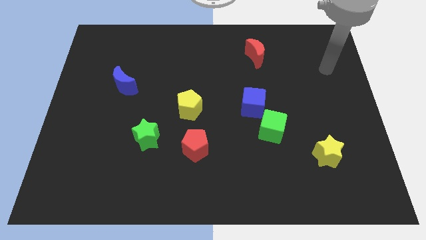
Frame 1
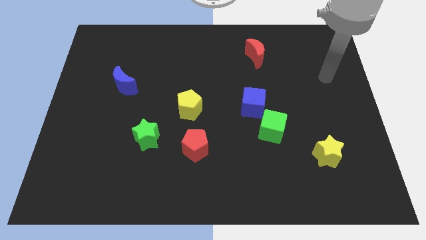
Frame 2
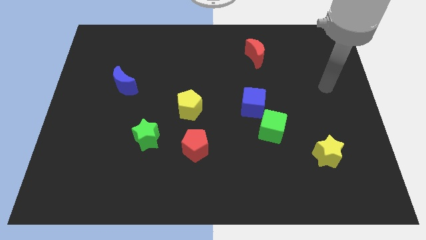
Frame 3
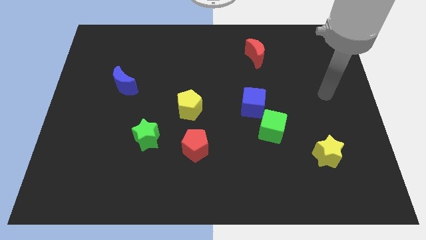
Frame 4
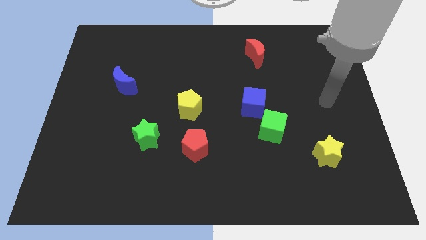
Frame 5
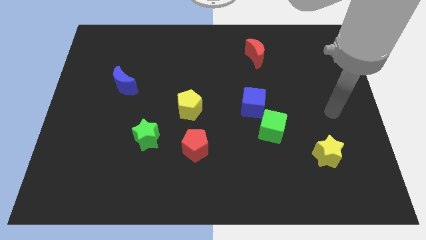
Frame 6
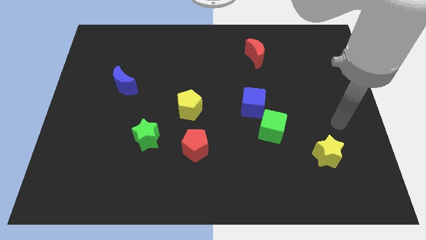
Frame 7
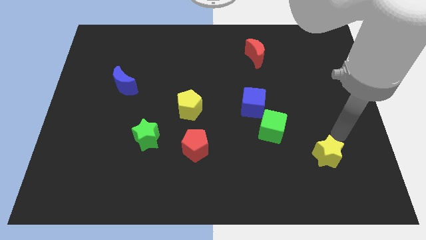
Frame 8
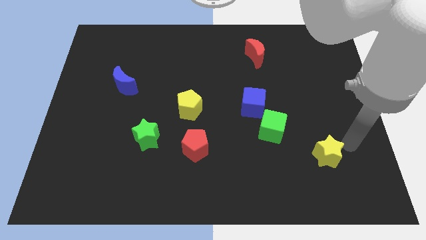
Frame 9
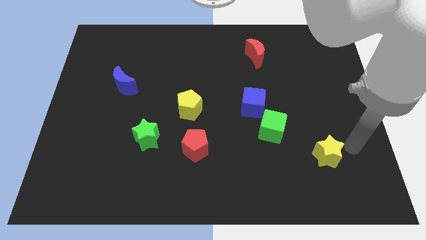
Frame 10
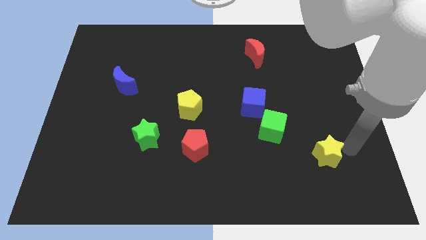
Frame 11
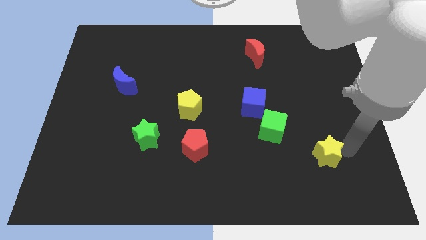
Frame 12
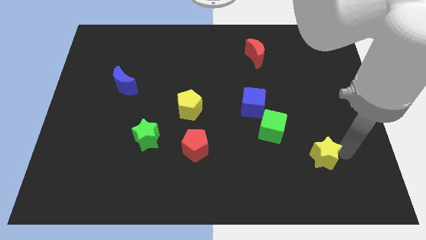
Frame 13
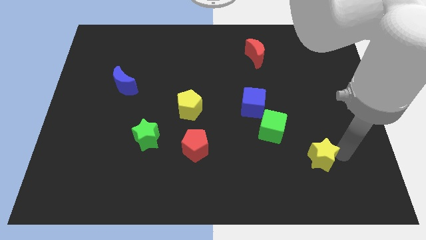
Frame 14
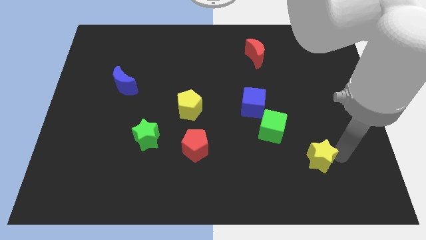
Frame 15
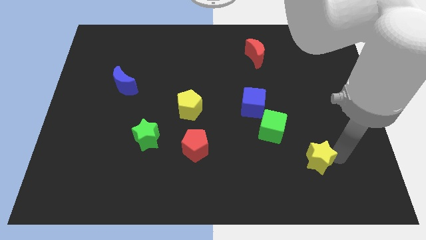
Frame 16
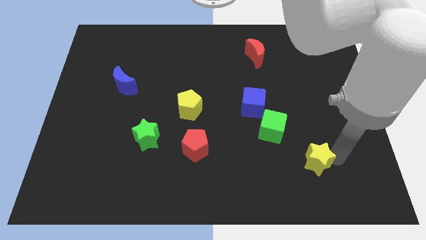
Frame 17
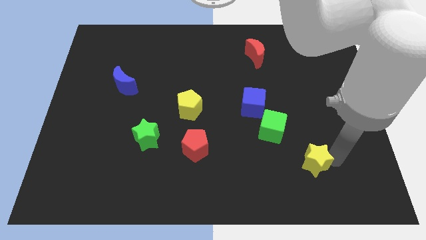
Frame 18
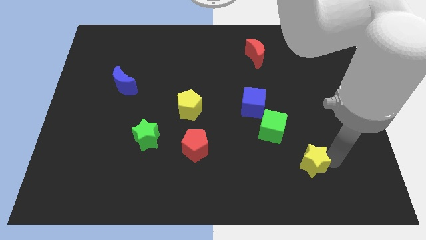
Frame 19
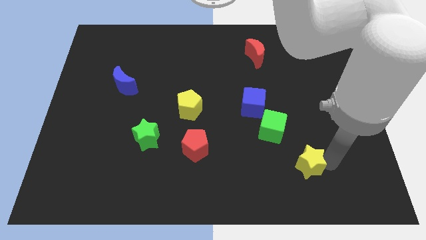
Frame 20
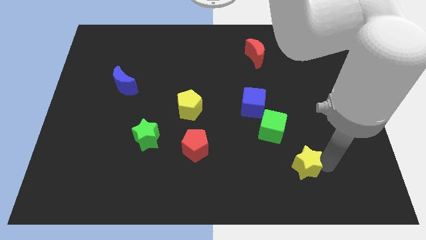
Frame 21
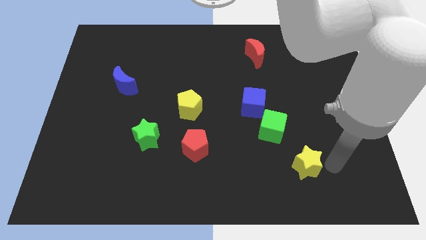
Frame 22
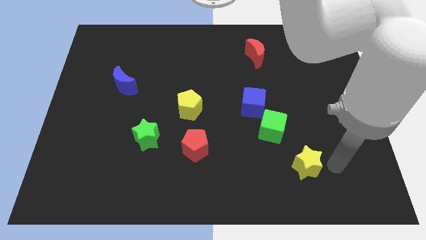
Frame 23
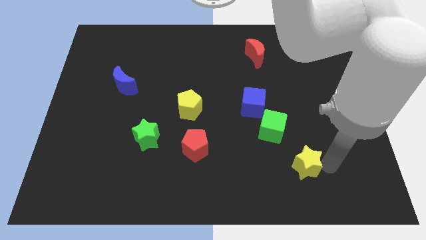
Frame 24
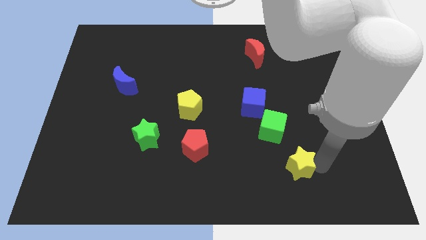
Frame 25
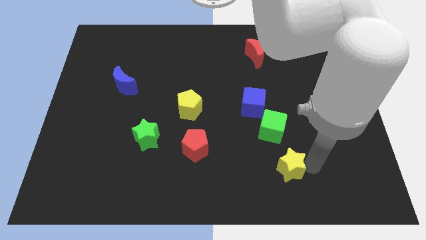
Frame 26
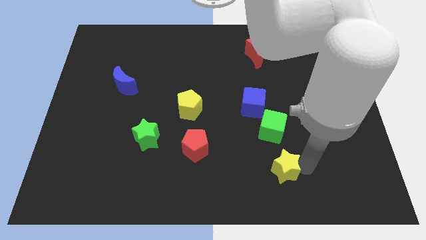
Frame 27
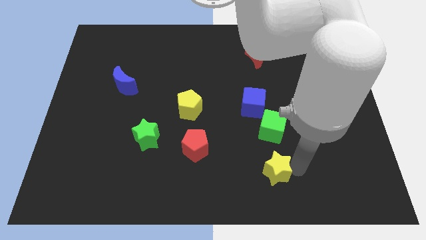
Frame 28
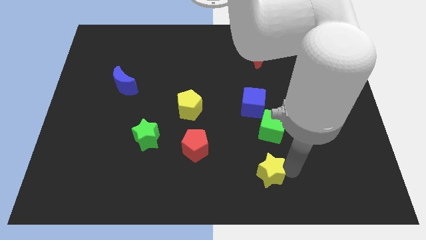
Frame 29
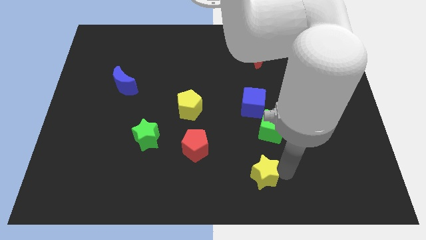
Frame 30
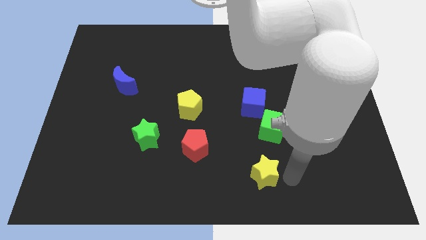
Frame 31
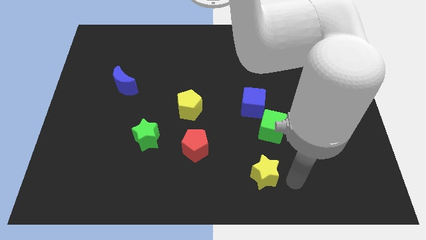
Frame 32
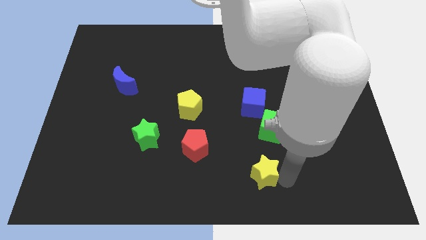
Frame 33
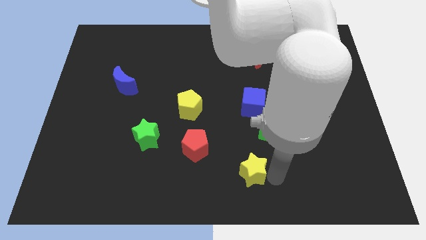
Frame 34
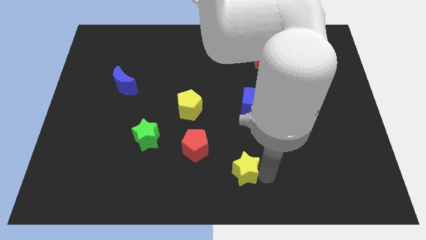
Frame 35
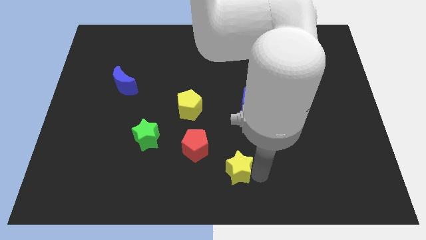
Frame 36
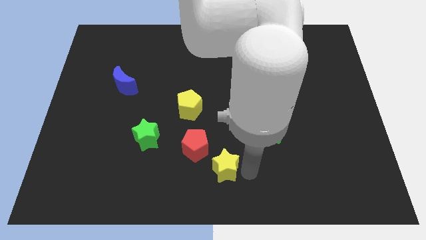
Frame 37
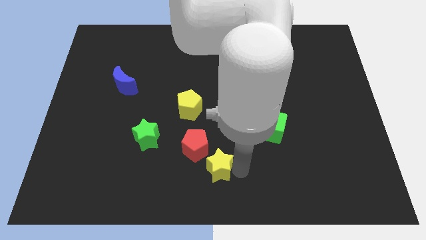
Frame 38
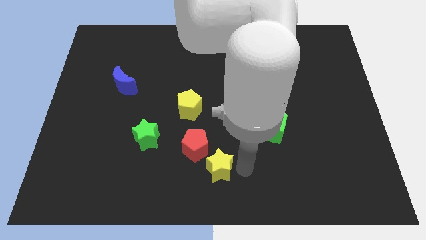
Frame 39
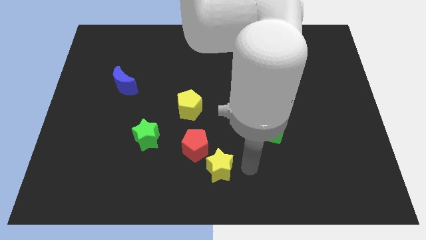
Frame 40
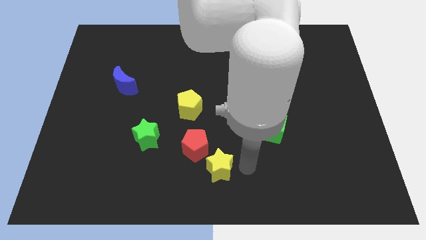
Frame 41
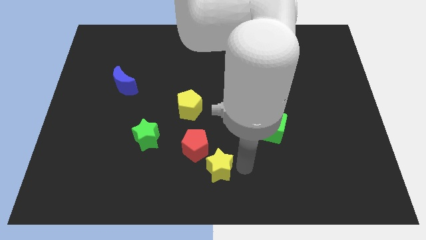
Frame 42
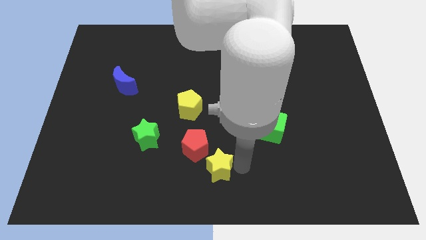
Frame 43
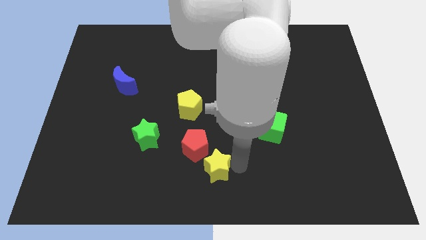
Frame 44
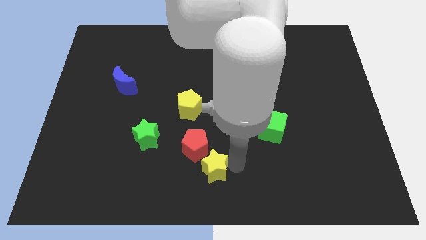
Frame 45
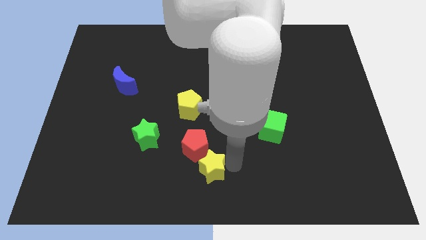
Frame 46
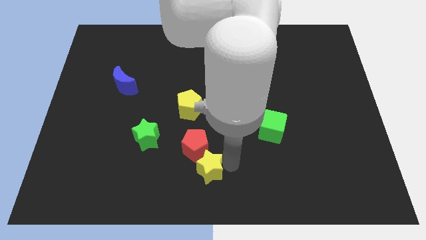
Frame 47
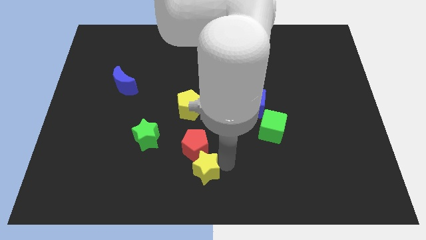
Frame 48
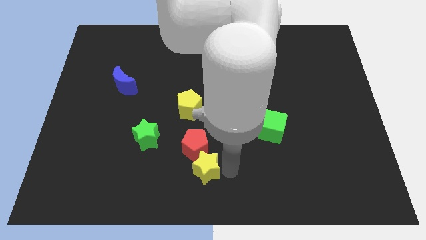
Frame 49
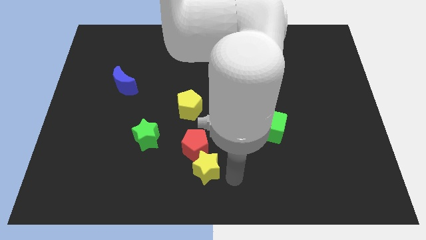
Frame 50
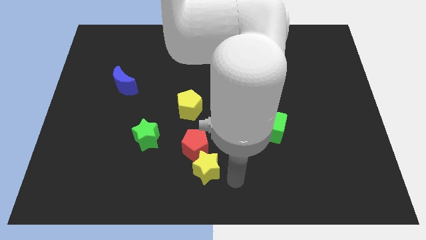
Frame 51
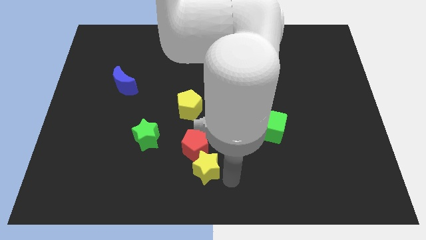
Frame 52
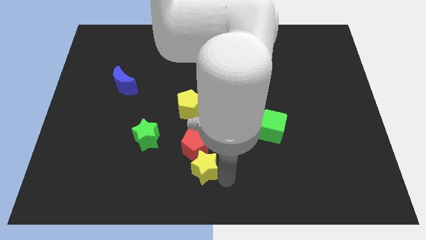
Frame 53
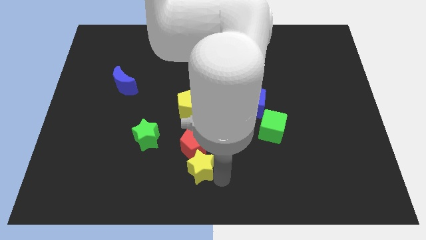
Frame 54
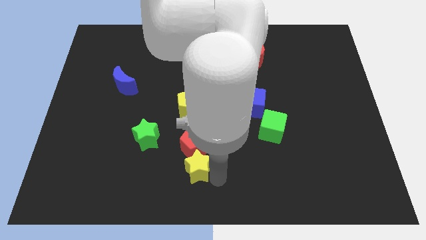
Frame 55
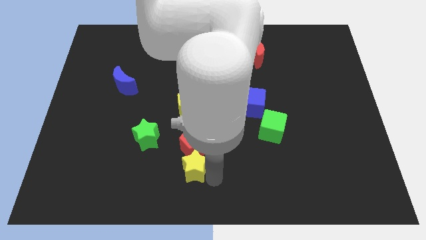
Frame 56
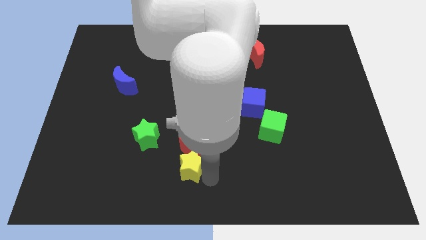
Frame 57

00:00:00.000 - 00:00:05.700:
move the yellow star to the bottom right of the green star

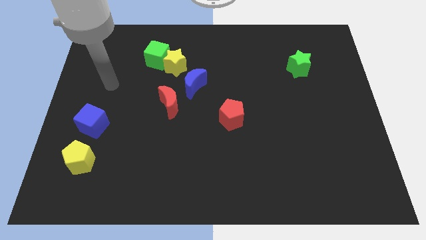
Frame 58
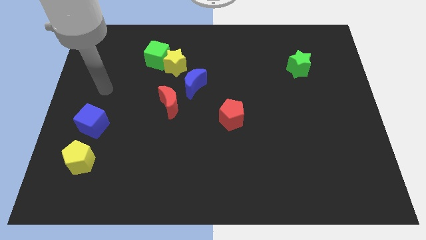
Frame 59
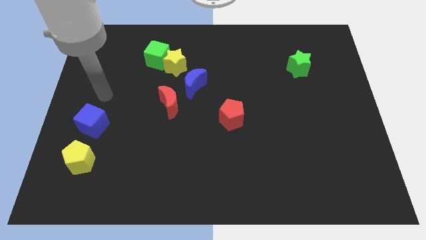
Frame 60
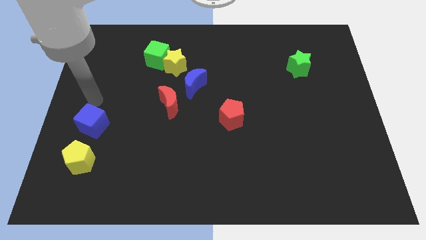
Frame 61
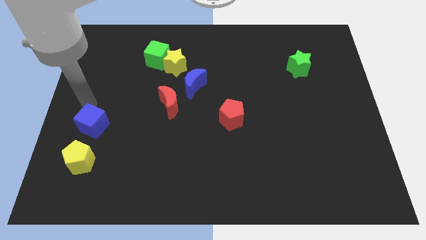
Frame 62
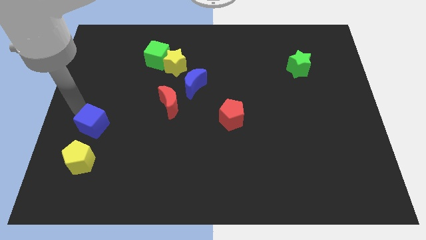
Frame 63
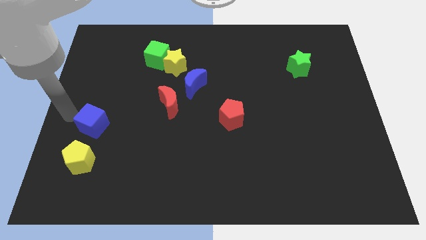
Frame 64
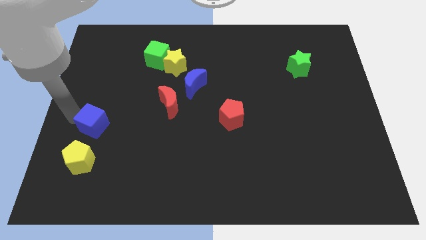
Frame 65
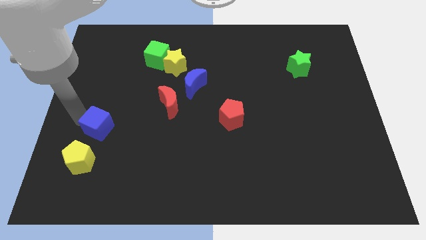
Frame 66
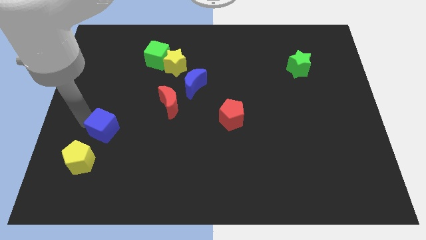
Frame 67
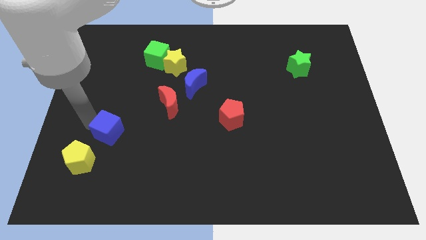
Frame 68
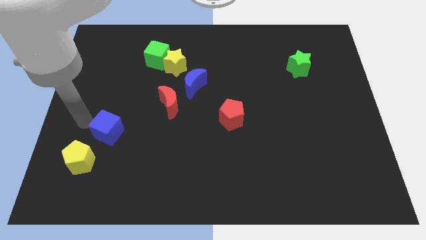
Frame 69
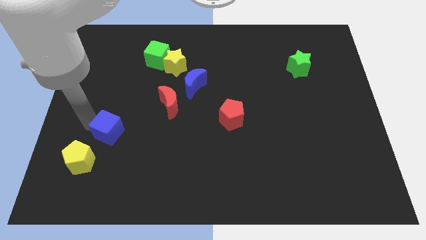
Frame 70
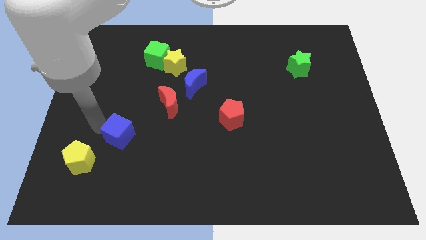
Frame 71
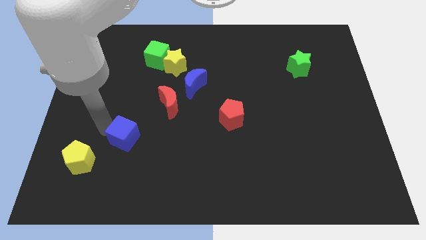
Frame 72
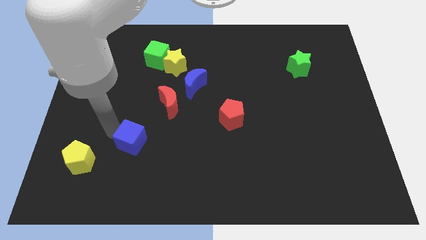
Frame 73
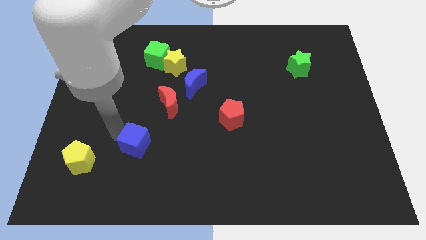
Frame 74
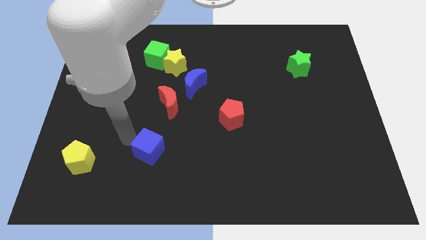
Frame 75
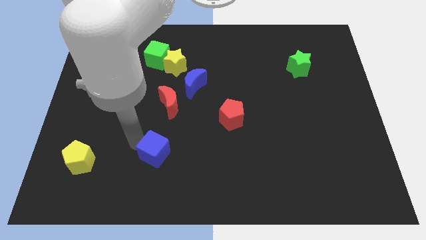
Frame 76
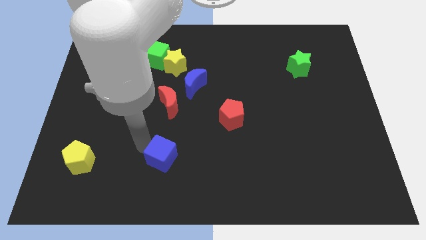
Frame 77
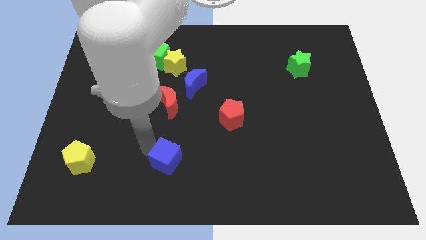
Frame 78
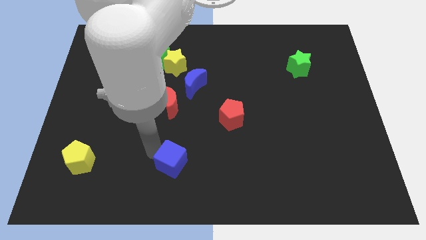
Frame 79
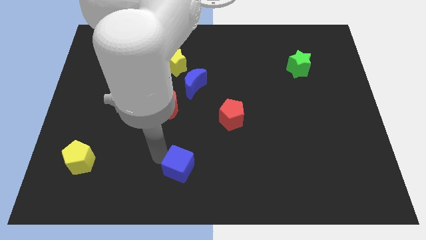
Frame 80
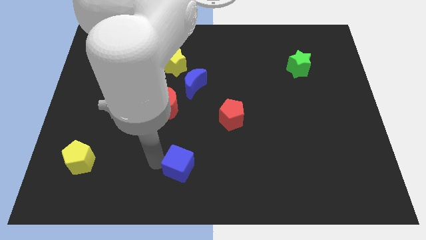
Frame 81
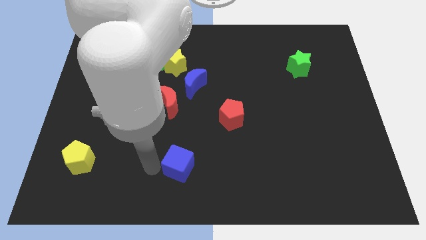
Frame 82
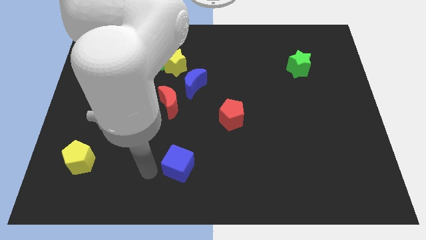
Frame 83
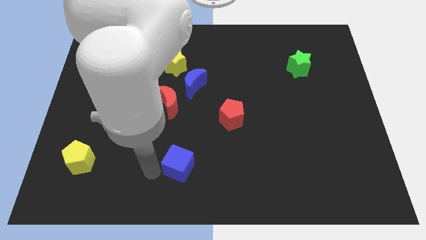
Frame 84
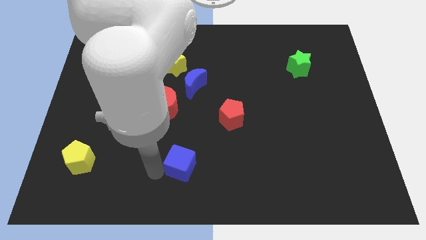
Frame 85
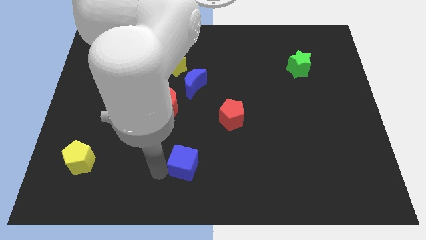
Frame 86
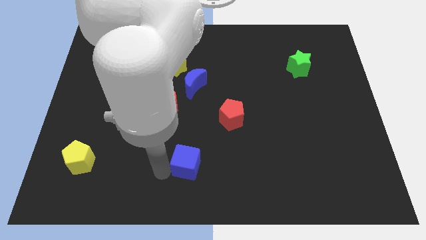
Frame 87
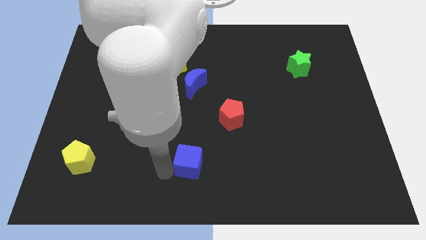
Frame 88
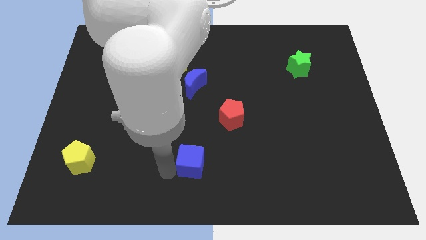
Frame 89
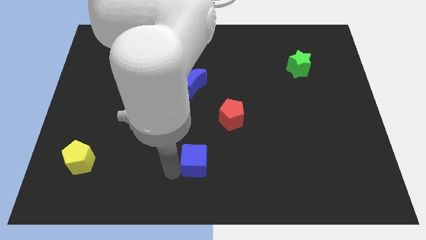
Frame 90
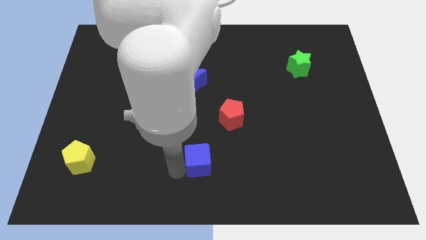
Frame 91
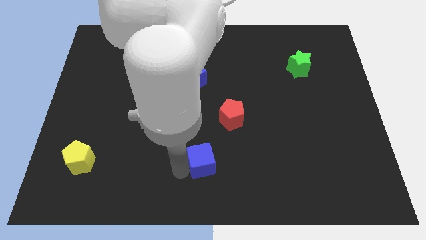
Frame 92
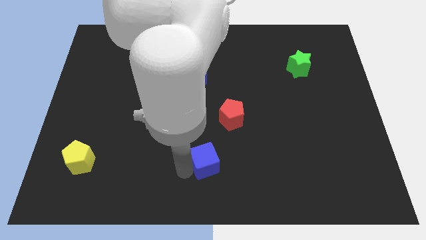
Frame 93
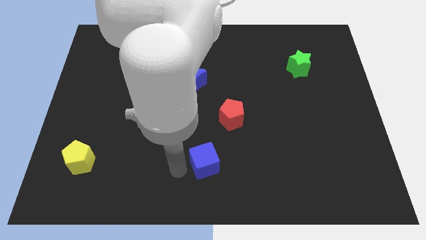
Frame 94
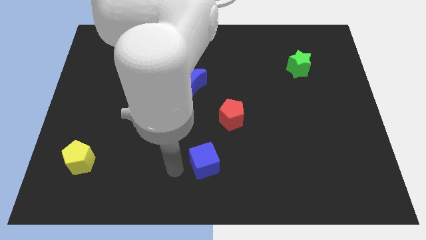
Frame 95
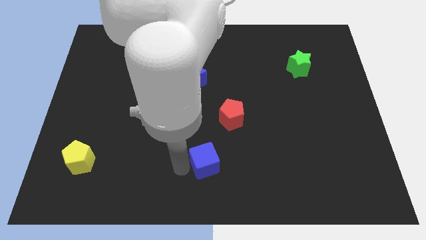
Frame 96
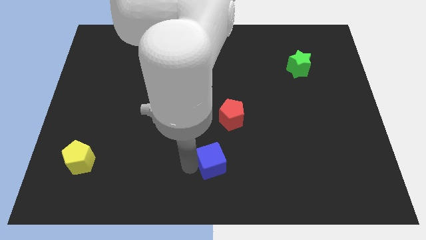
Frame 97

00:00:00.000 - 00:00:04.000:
slide the blue cube to the bottom side of the red pentagon
